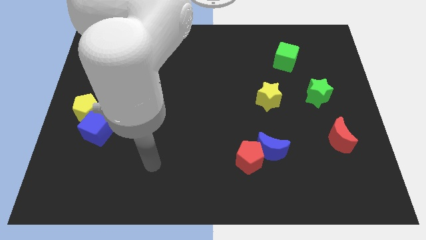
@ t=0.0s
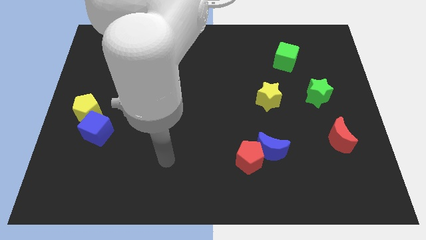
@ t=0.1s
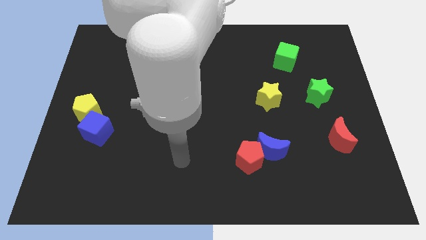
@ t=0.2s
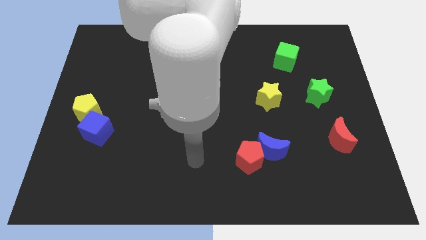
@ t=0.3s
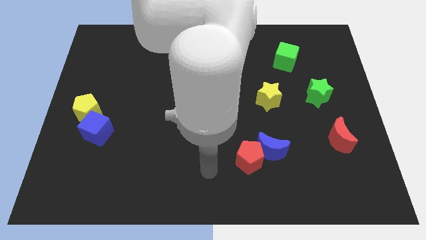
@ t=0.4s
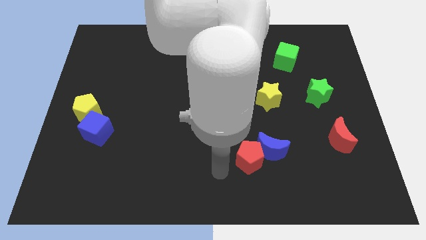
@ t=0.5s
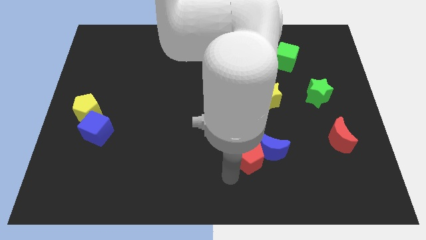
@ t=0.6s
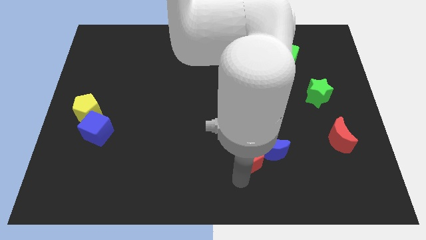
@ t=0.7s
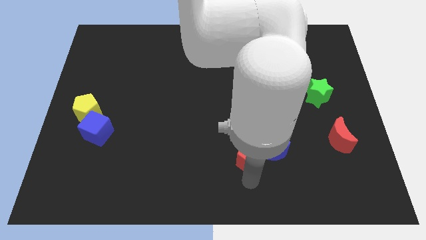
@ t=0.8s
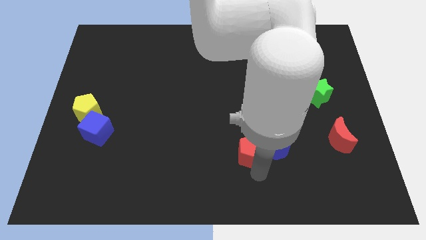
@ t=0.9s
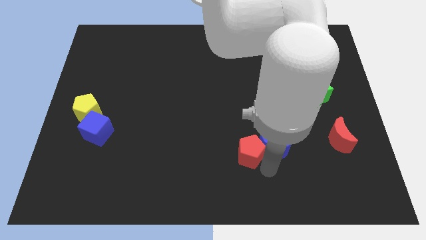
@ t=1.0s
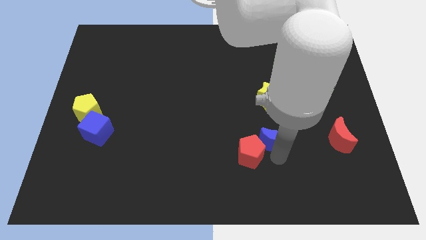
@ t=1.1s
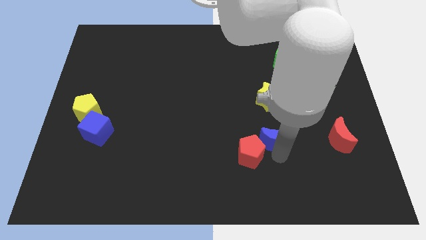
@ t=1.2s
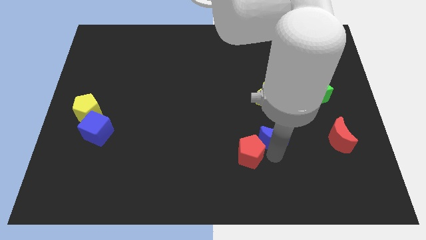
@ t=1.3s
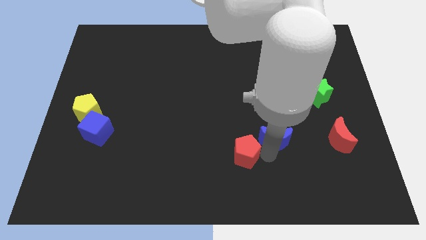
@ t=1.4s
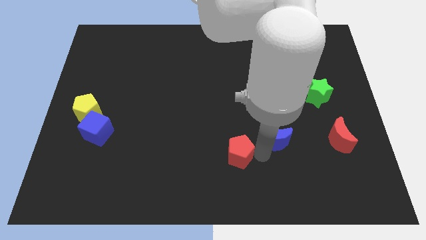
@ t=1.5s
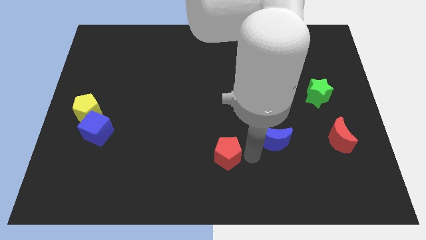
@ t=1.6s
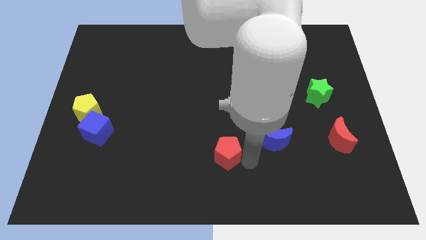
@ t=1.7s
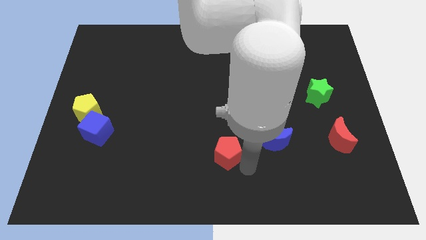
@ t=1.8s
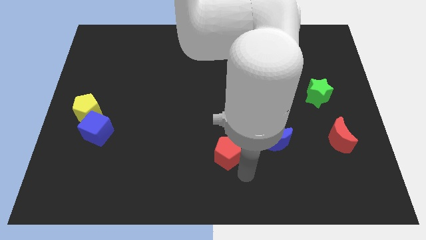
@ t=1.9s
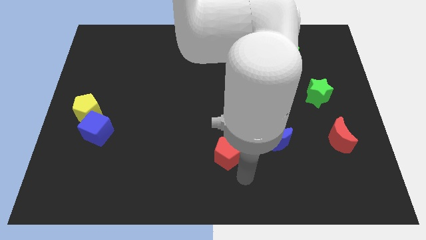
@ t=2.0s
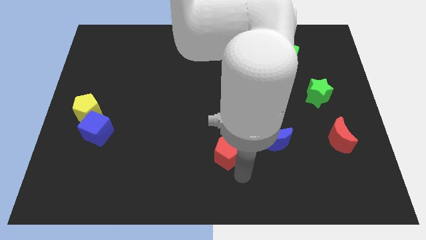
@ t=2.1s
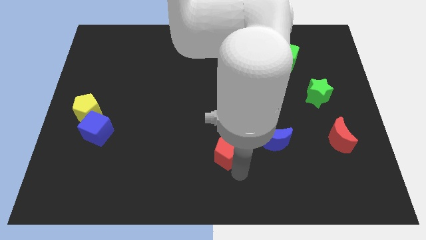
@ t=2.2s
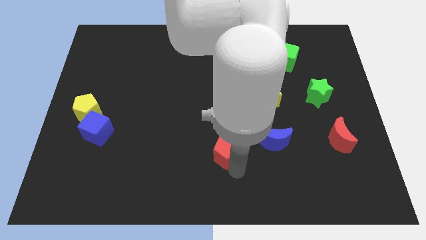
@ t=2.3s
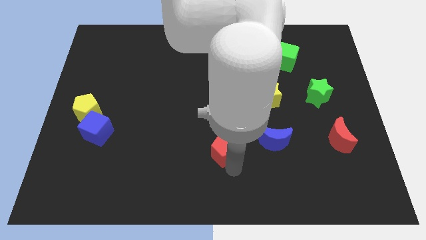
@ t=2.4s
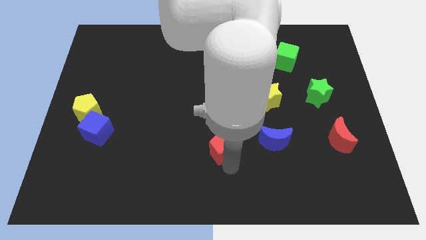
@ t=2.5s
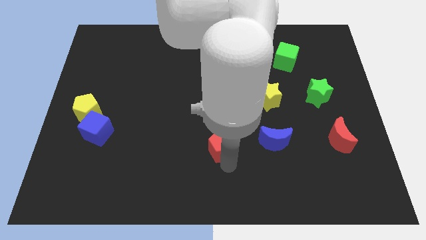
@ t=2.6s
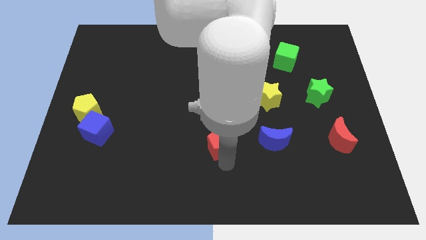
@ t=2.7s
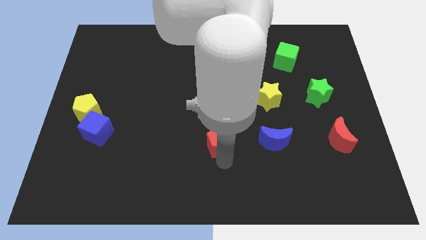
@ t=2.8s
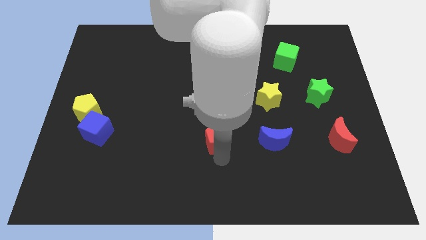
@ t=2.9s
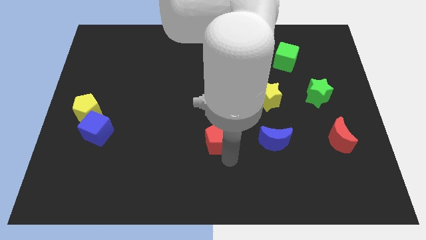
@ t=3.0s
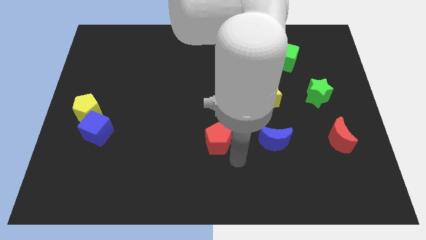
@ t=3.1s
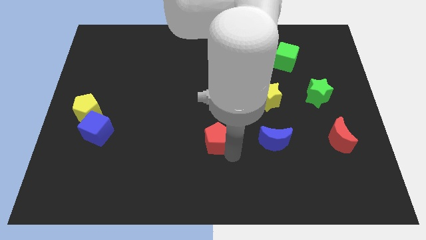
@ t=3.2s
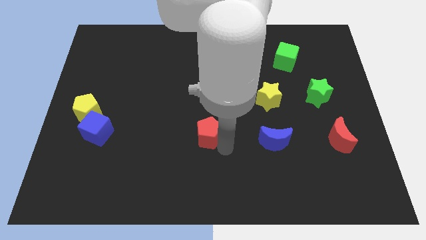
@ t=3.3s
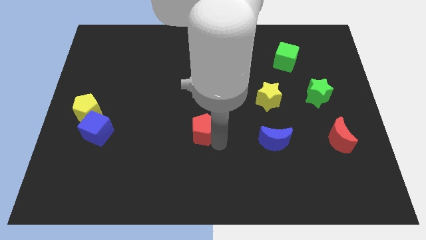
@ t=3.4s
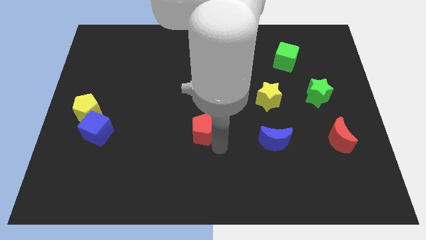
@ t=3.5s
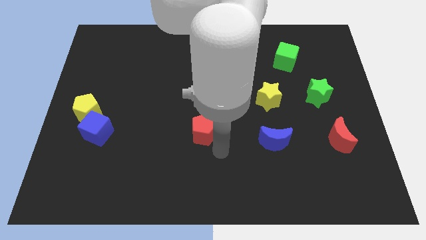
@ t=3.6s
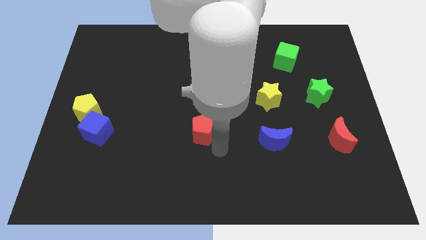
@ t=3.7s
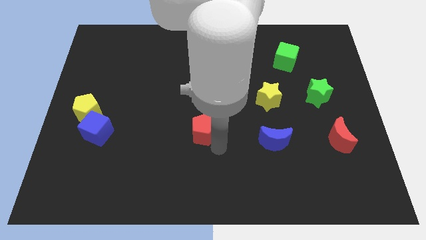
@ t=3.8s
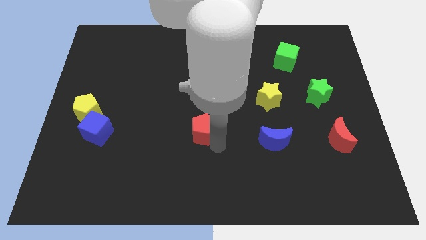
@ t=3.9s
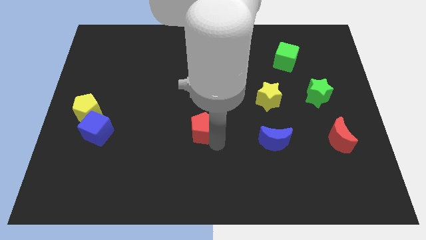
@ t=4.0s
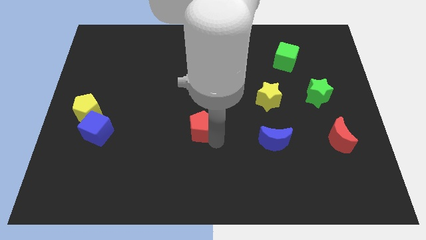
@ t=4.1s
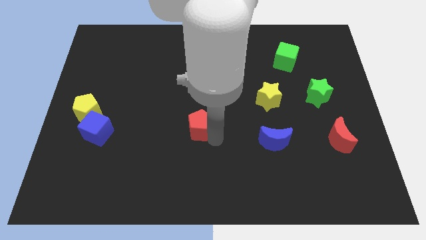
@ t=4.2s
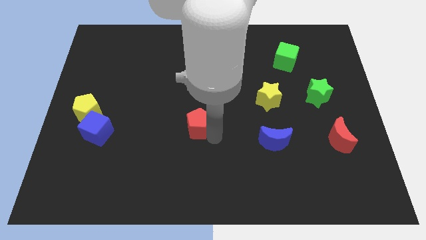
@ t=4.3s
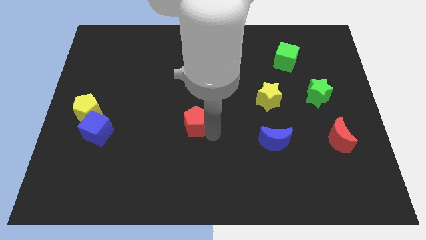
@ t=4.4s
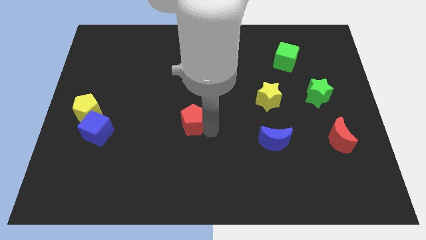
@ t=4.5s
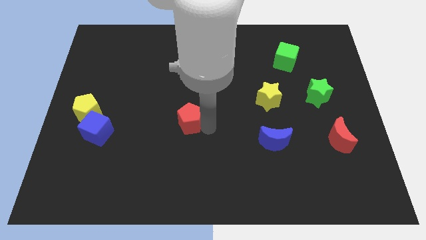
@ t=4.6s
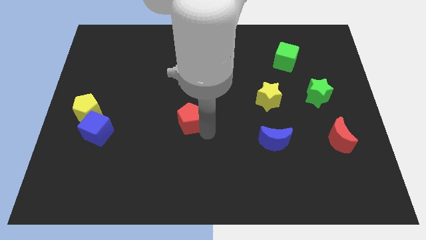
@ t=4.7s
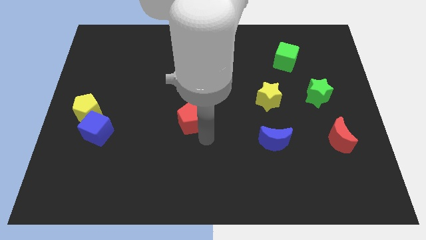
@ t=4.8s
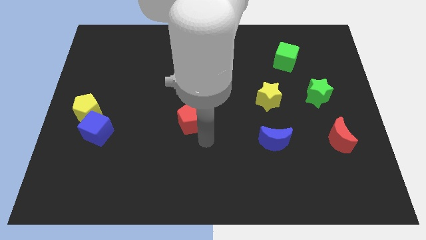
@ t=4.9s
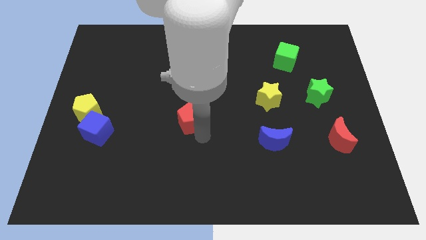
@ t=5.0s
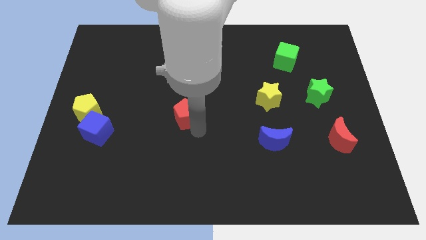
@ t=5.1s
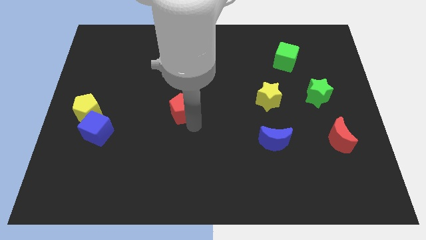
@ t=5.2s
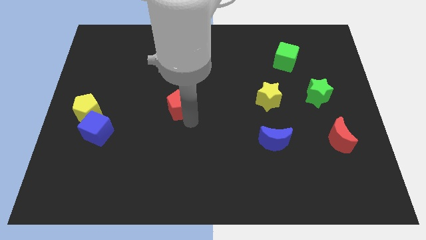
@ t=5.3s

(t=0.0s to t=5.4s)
slide the red pentagon upwards and left diagonally

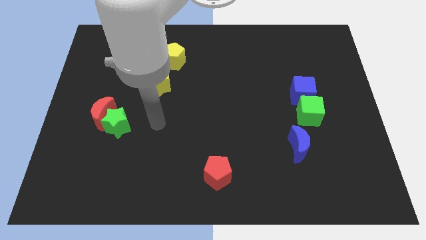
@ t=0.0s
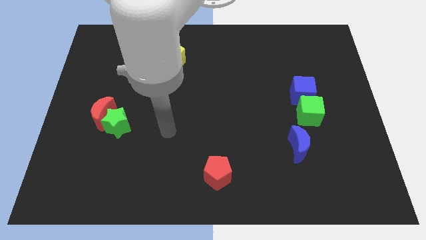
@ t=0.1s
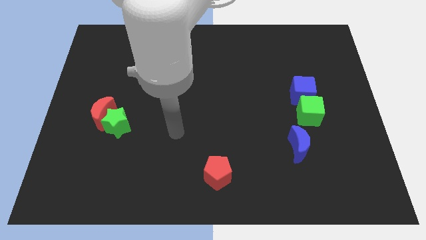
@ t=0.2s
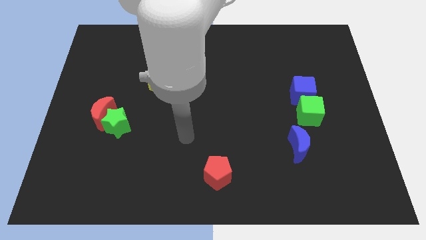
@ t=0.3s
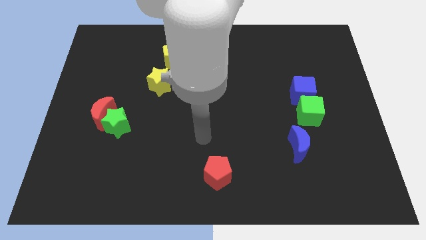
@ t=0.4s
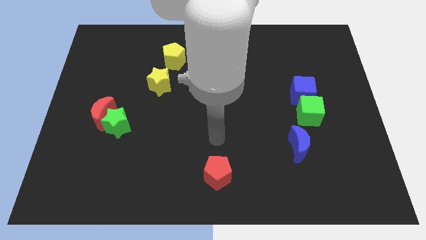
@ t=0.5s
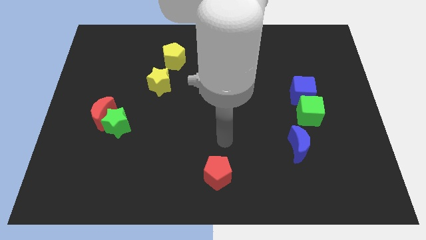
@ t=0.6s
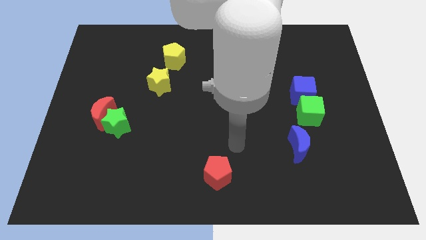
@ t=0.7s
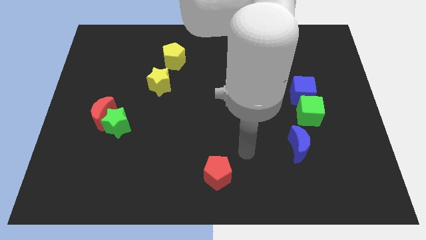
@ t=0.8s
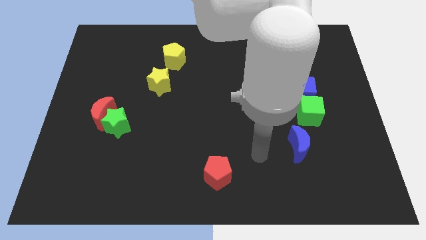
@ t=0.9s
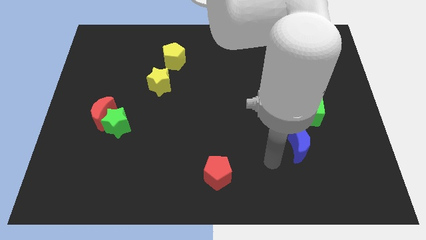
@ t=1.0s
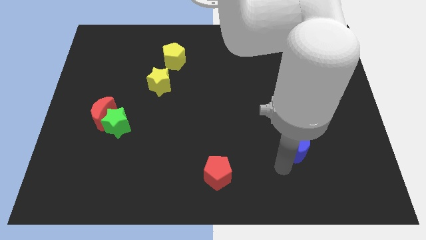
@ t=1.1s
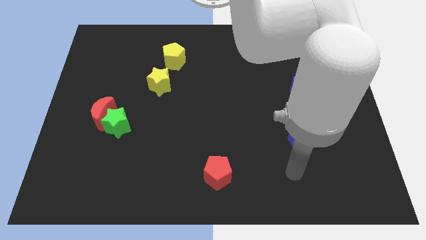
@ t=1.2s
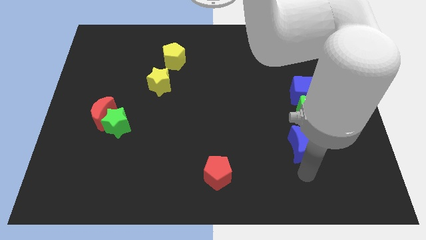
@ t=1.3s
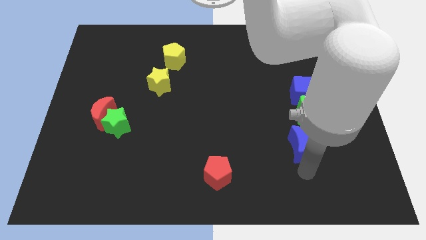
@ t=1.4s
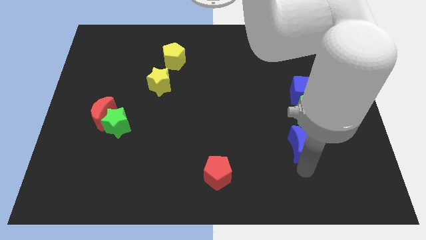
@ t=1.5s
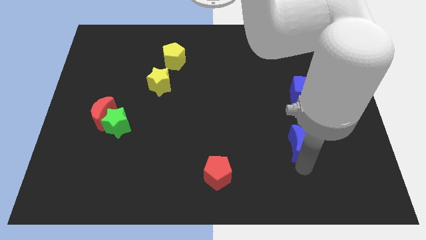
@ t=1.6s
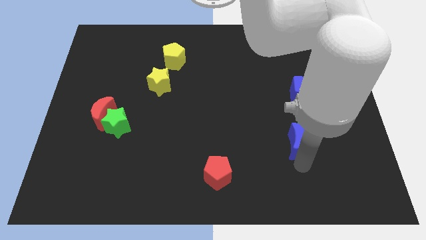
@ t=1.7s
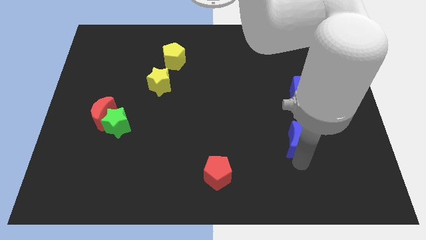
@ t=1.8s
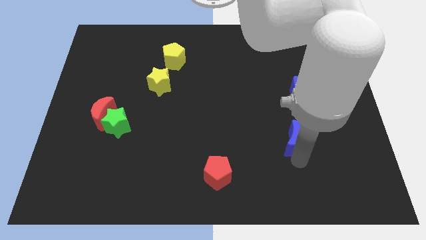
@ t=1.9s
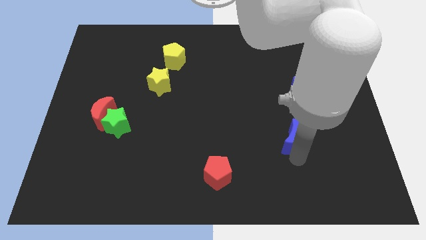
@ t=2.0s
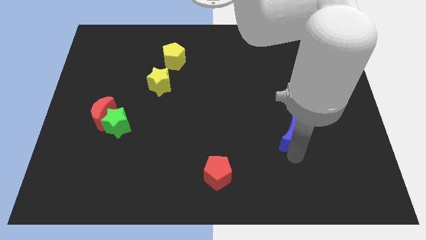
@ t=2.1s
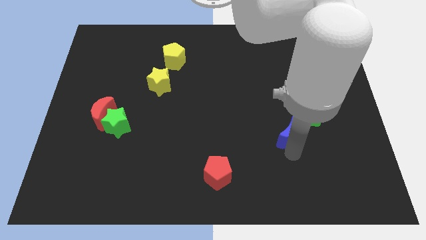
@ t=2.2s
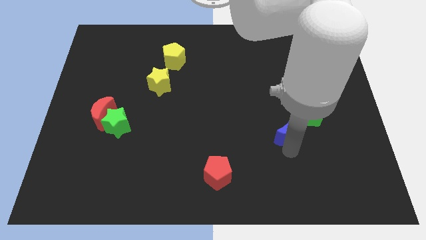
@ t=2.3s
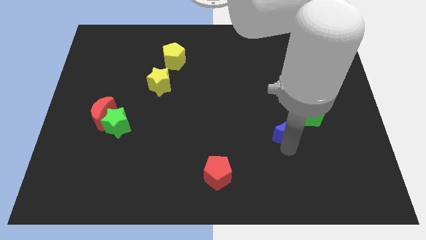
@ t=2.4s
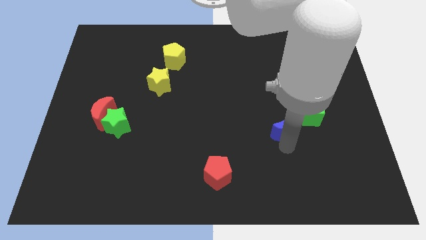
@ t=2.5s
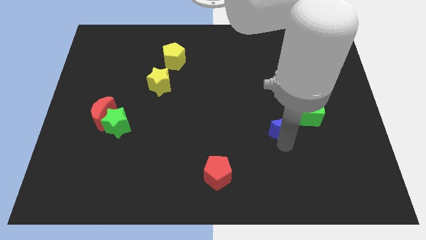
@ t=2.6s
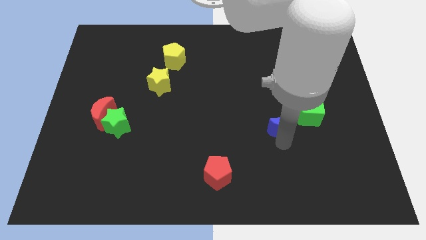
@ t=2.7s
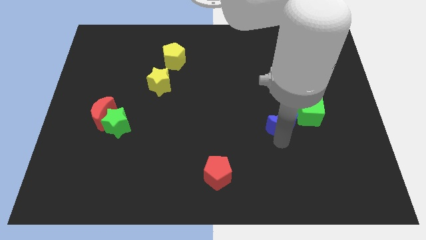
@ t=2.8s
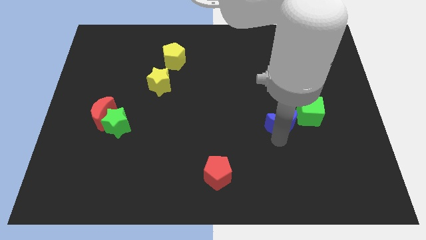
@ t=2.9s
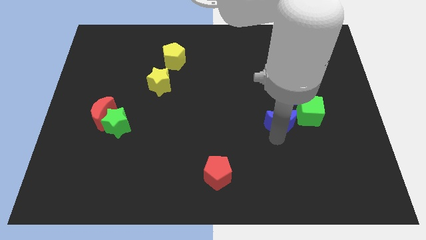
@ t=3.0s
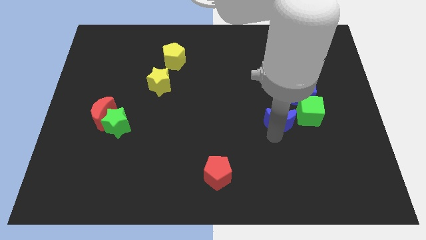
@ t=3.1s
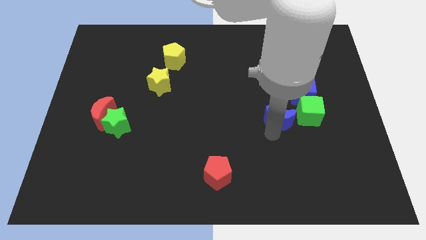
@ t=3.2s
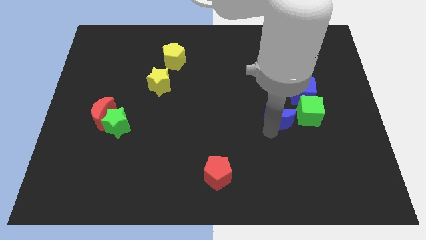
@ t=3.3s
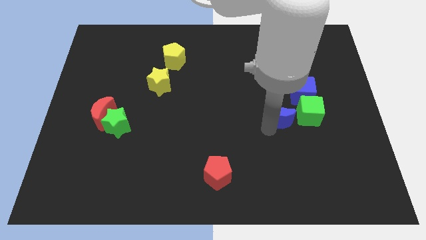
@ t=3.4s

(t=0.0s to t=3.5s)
move the blue moon somewhat up
